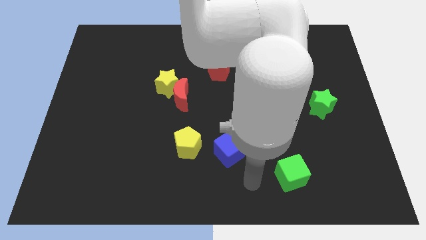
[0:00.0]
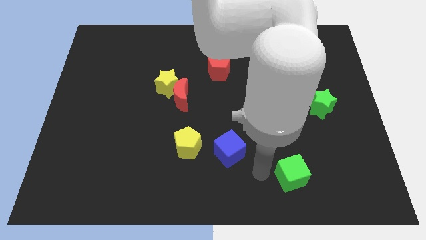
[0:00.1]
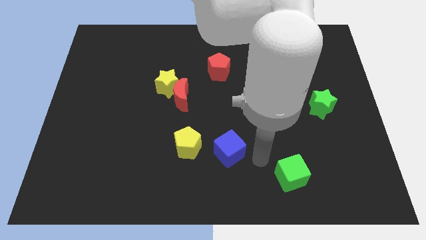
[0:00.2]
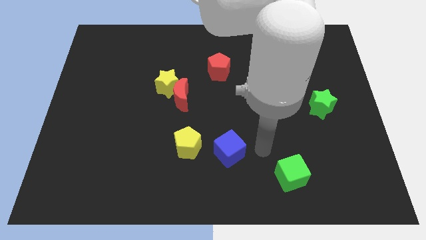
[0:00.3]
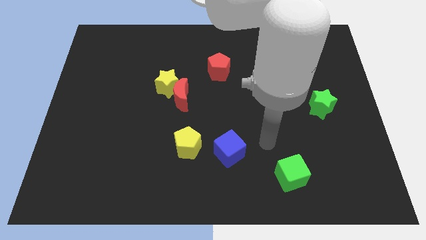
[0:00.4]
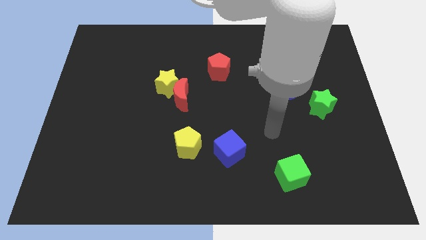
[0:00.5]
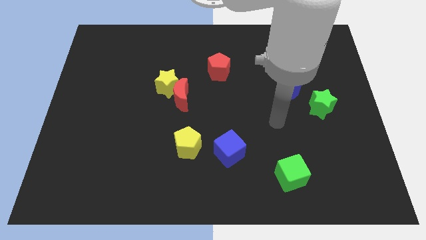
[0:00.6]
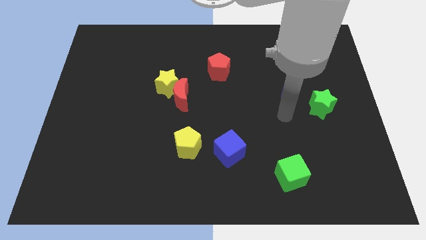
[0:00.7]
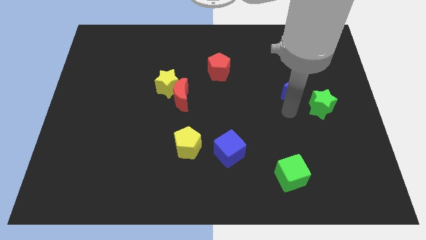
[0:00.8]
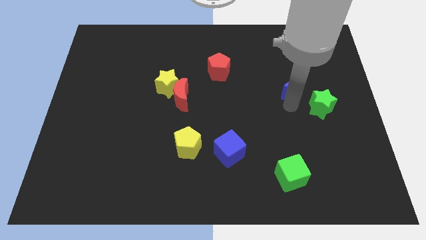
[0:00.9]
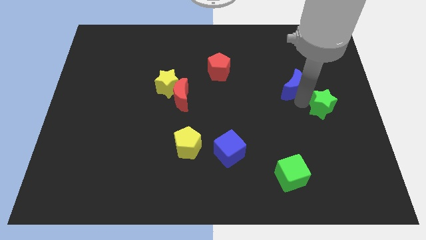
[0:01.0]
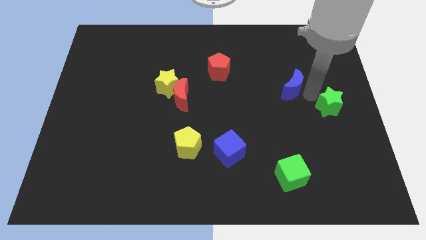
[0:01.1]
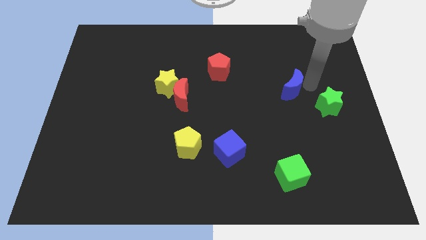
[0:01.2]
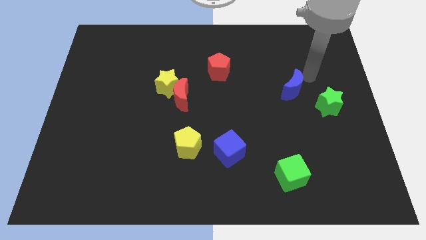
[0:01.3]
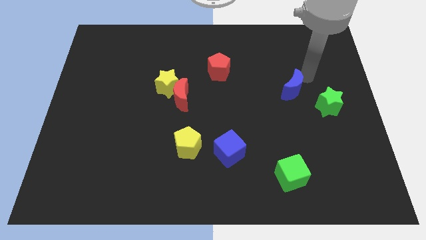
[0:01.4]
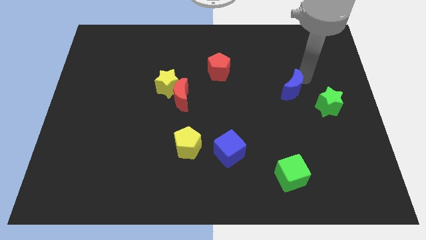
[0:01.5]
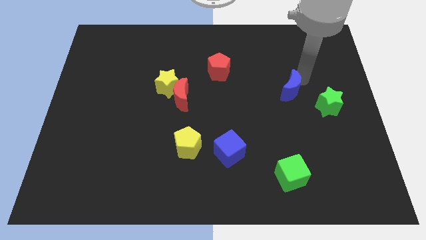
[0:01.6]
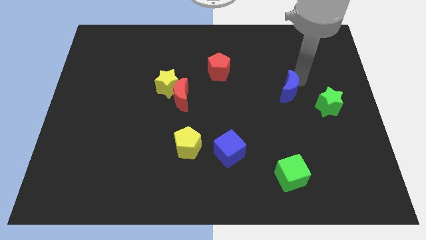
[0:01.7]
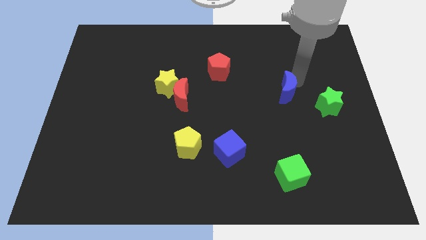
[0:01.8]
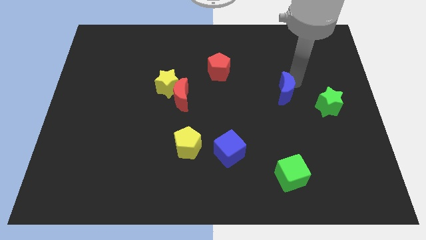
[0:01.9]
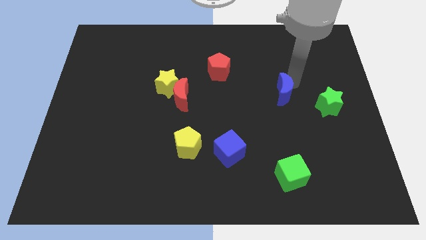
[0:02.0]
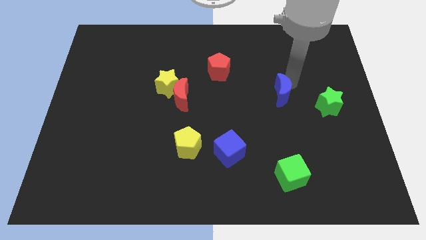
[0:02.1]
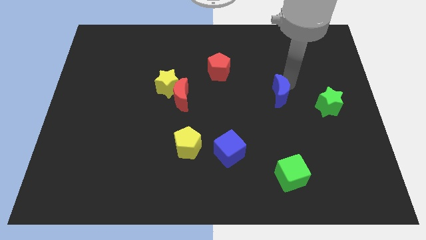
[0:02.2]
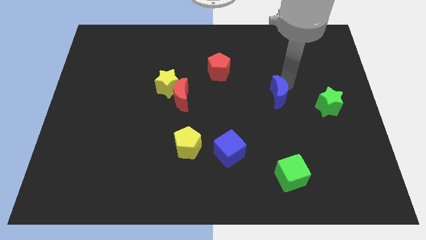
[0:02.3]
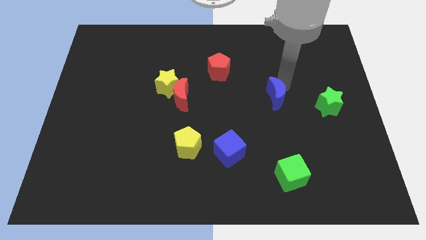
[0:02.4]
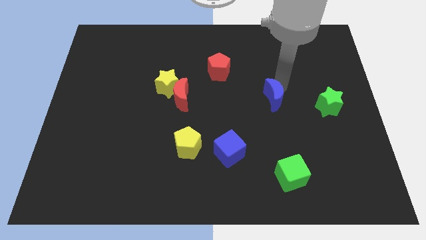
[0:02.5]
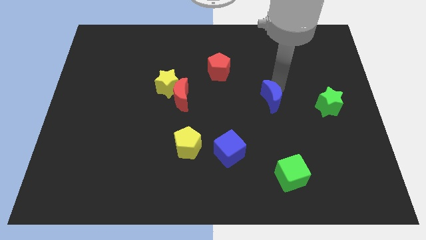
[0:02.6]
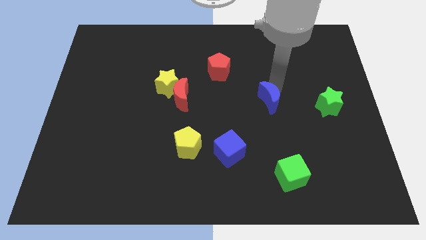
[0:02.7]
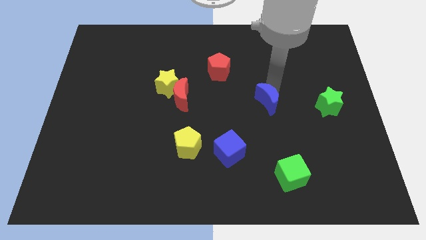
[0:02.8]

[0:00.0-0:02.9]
slightly slide the blue moon diagonally downwards and left

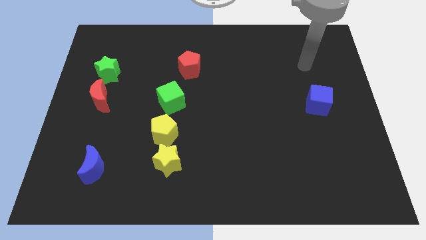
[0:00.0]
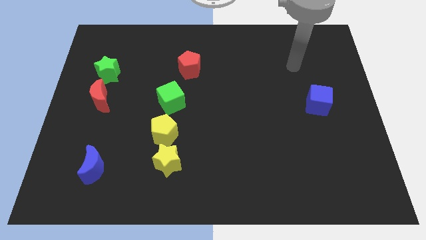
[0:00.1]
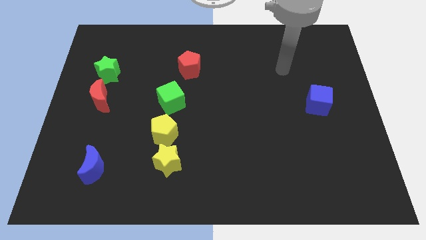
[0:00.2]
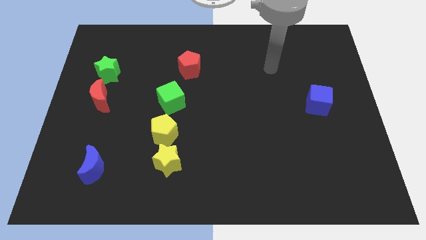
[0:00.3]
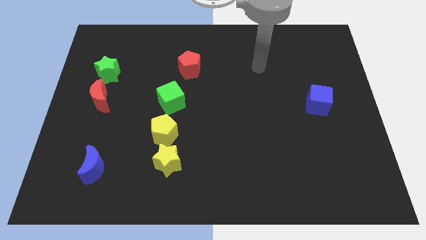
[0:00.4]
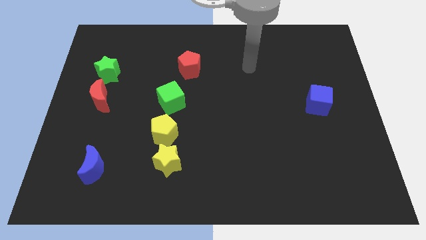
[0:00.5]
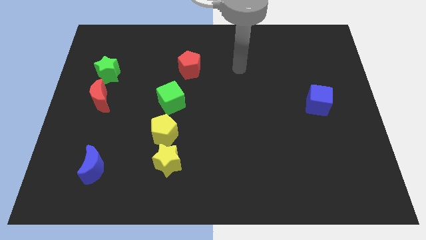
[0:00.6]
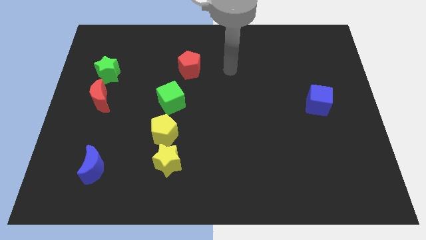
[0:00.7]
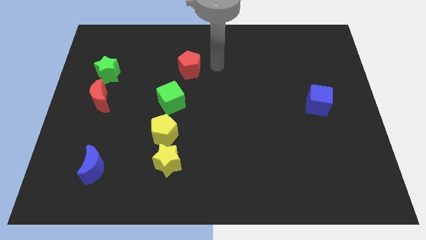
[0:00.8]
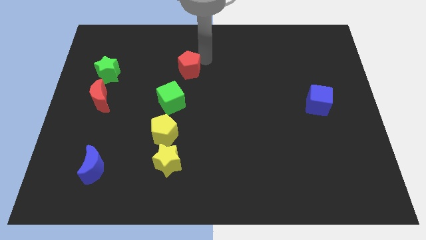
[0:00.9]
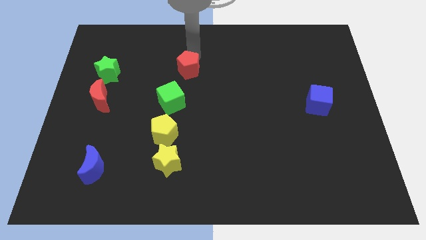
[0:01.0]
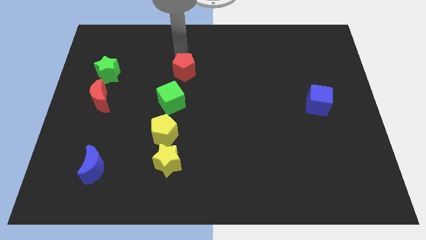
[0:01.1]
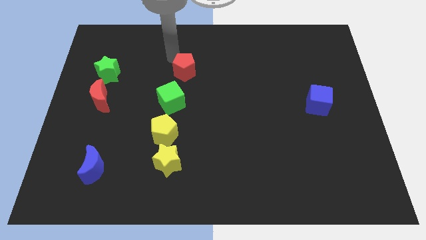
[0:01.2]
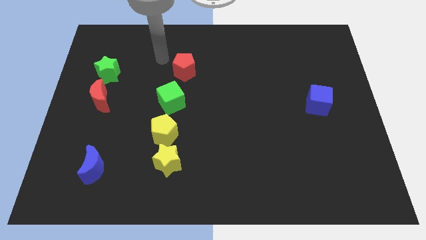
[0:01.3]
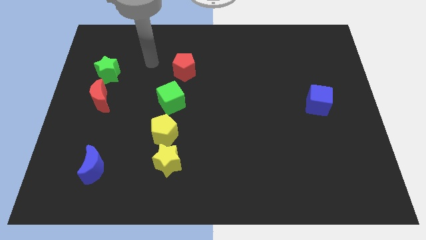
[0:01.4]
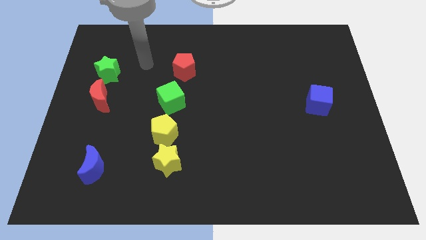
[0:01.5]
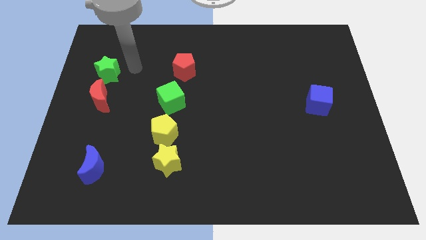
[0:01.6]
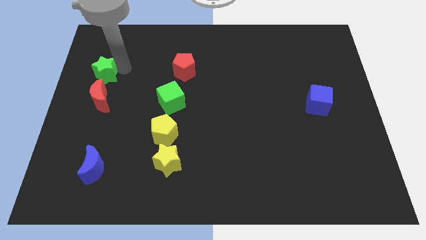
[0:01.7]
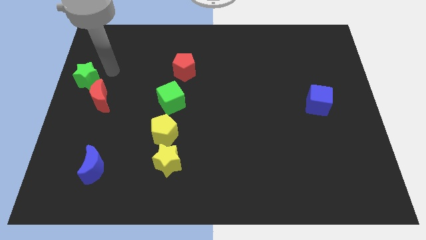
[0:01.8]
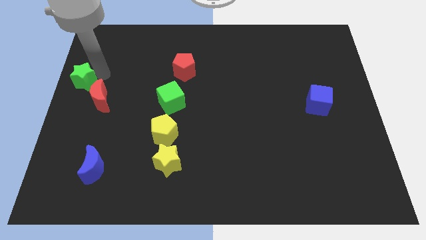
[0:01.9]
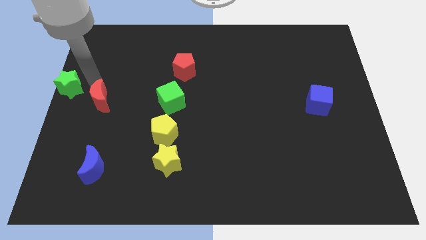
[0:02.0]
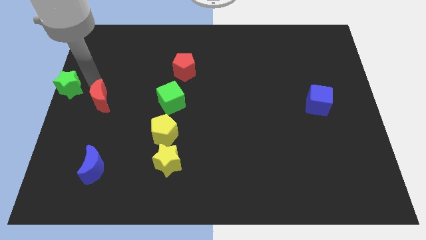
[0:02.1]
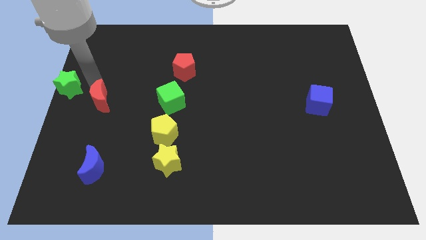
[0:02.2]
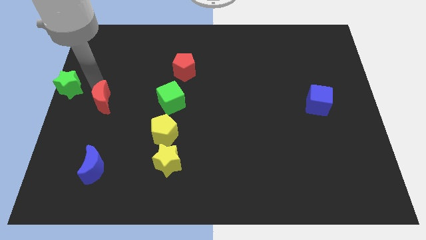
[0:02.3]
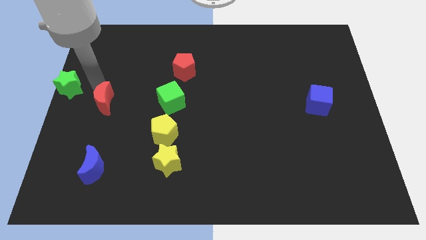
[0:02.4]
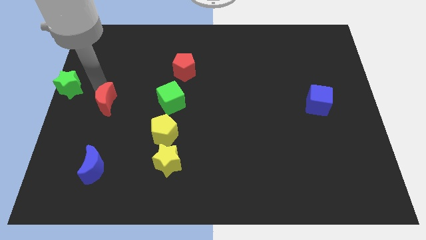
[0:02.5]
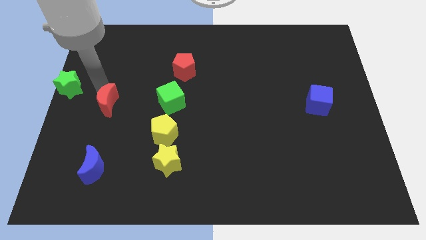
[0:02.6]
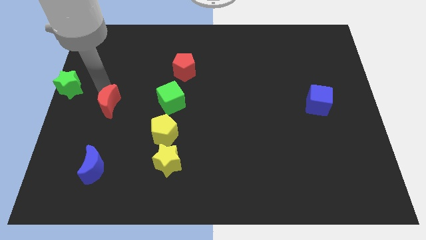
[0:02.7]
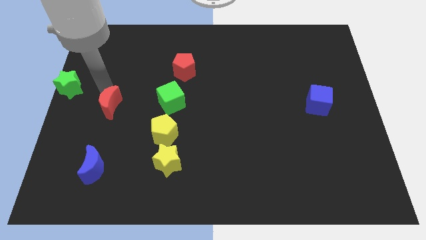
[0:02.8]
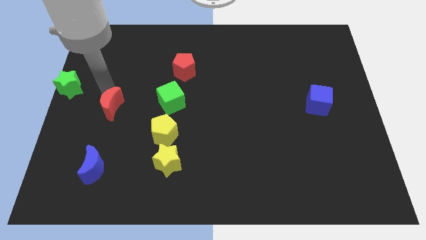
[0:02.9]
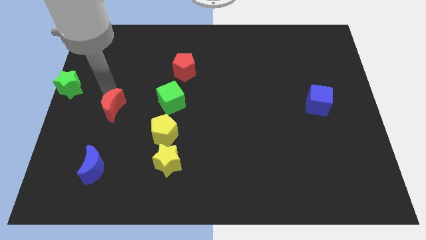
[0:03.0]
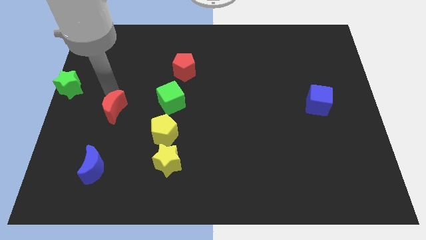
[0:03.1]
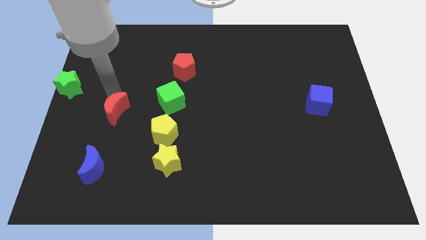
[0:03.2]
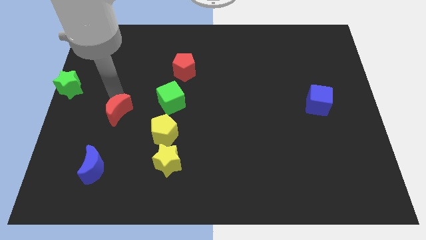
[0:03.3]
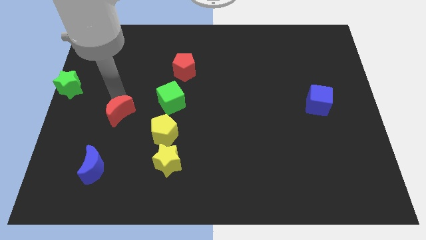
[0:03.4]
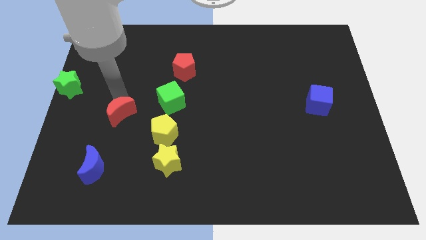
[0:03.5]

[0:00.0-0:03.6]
move the red moon downwards and to the right diagonally slightly

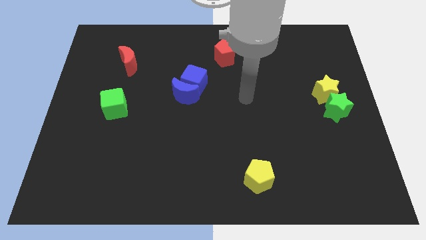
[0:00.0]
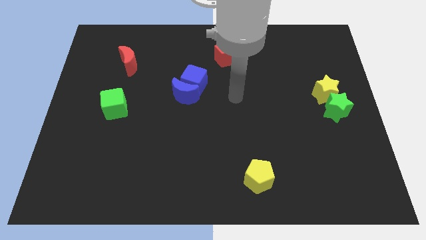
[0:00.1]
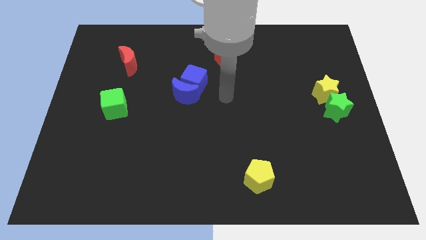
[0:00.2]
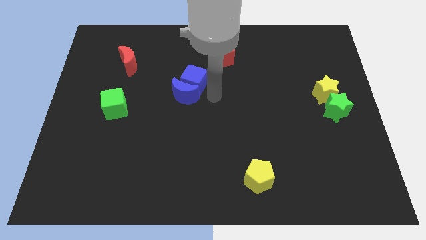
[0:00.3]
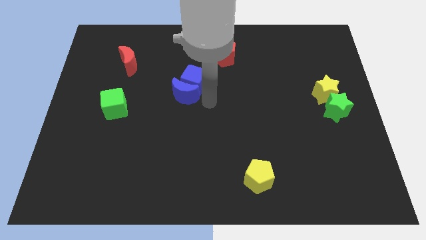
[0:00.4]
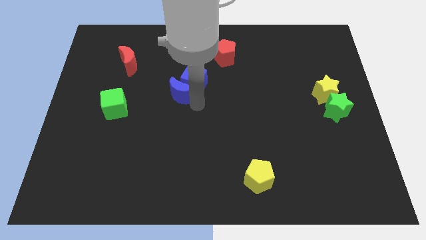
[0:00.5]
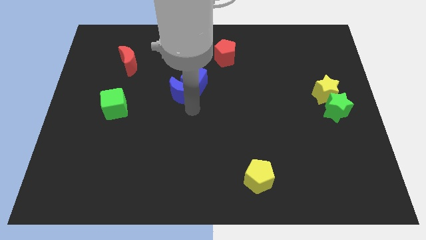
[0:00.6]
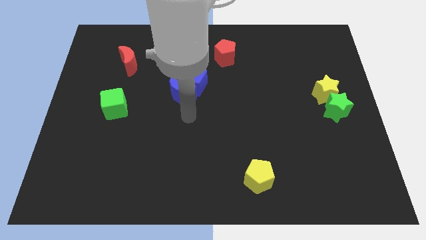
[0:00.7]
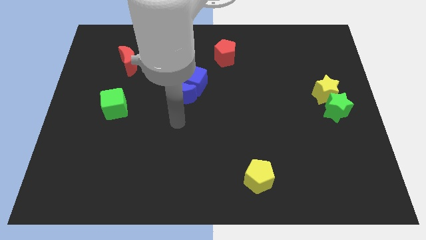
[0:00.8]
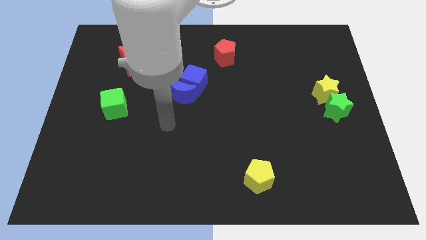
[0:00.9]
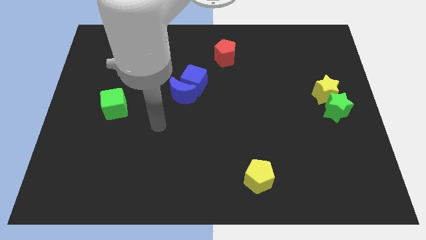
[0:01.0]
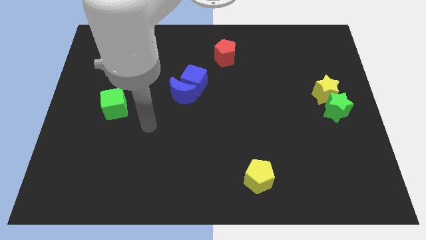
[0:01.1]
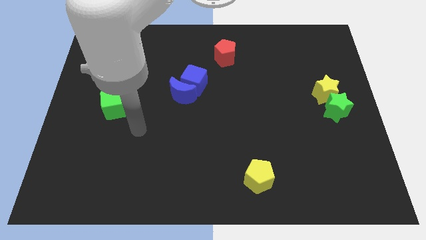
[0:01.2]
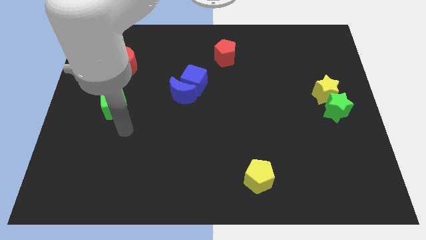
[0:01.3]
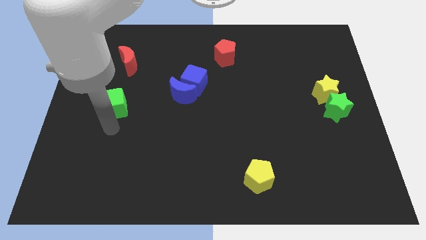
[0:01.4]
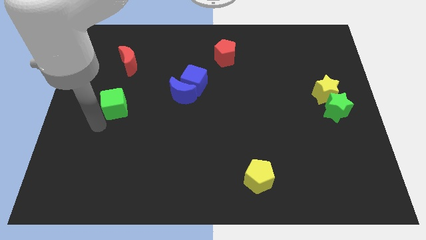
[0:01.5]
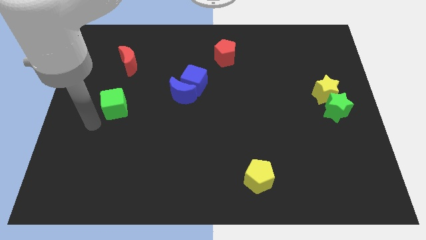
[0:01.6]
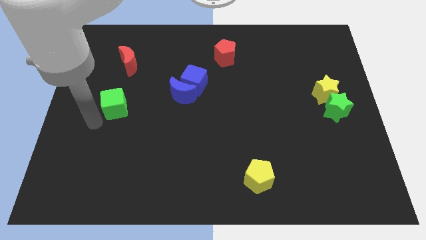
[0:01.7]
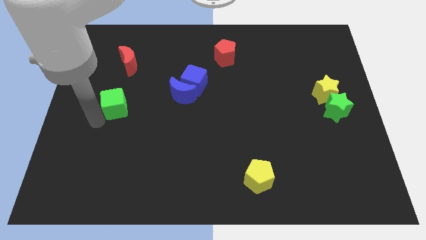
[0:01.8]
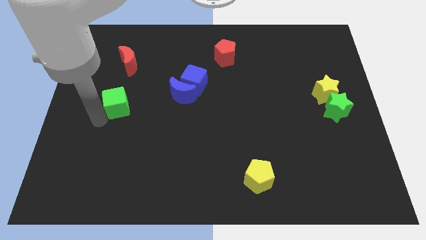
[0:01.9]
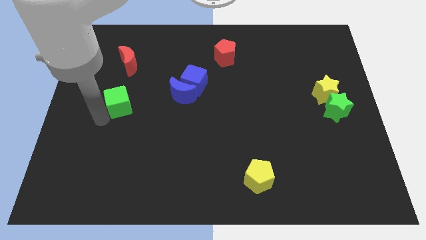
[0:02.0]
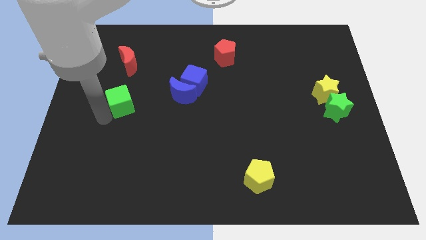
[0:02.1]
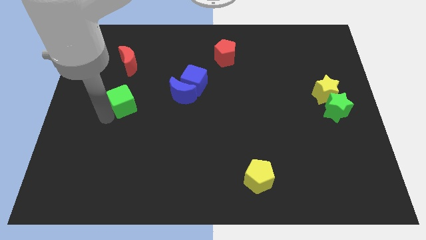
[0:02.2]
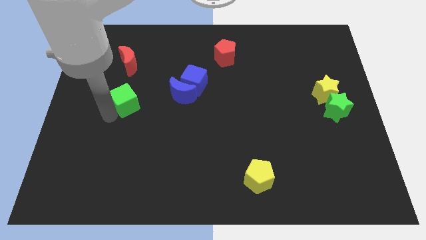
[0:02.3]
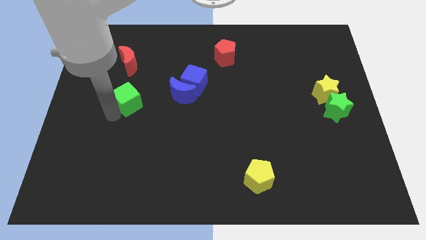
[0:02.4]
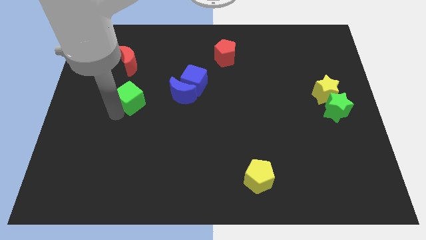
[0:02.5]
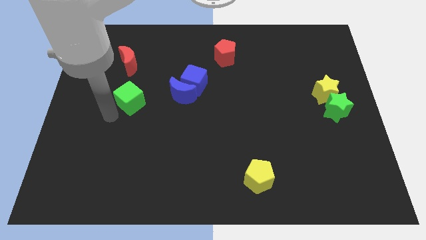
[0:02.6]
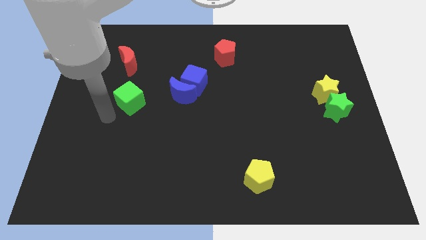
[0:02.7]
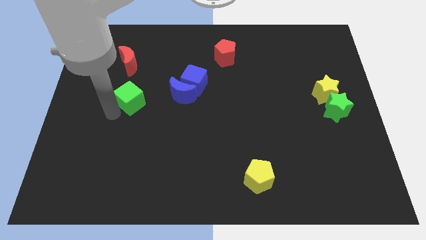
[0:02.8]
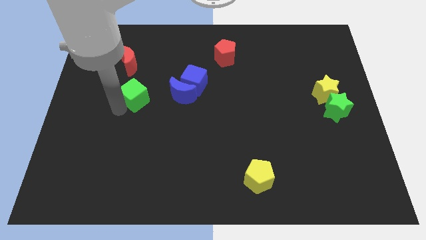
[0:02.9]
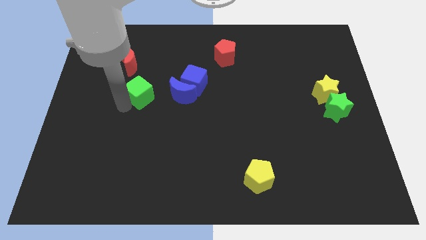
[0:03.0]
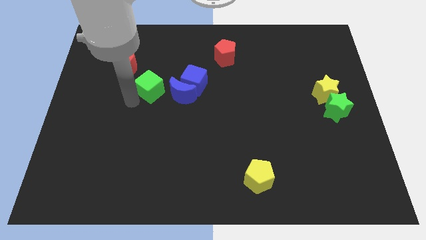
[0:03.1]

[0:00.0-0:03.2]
slide the green cube a little bit upwards and right
